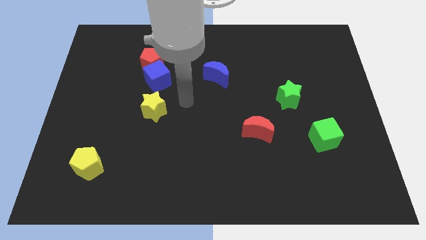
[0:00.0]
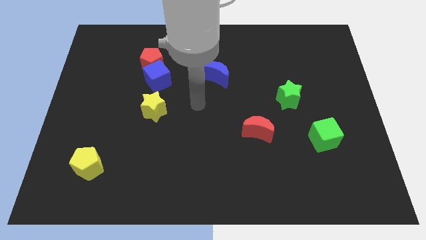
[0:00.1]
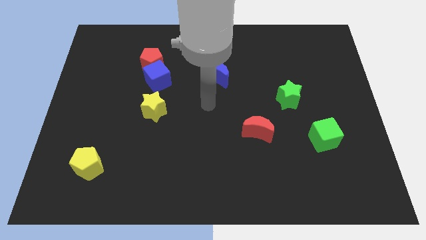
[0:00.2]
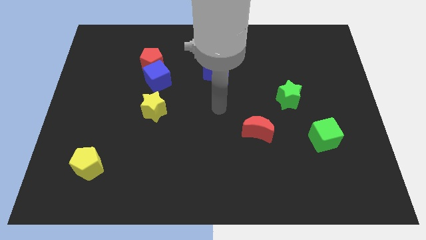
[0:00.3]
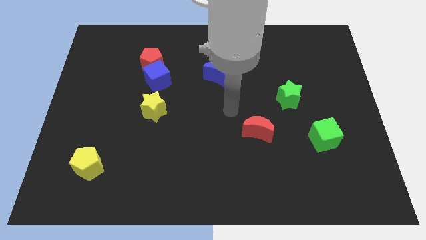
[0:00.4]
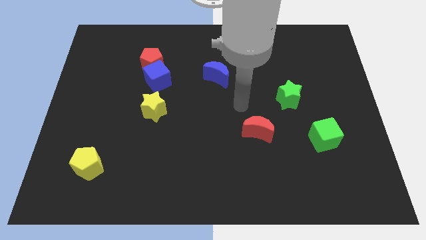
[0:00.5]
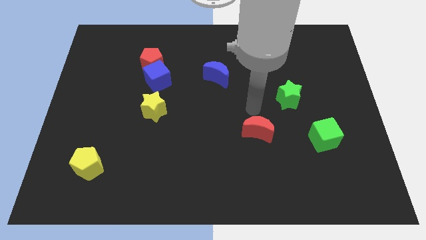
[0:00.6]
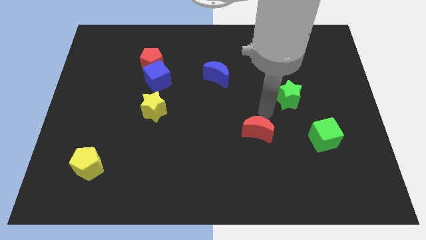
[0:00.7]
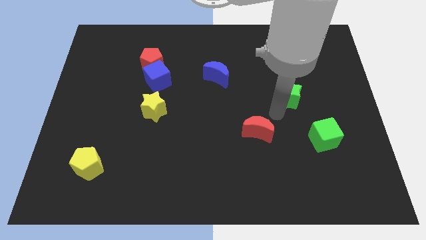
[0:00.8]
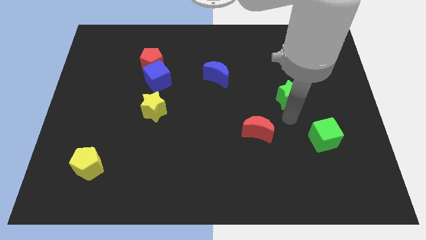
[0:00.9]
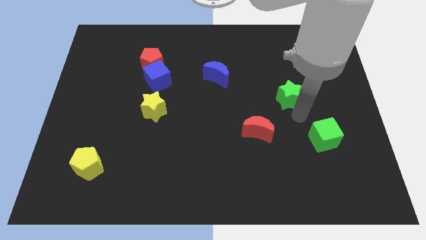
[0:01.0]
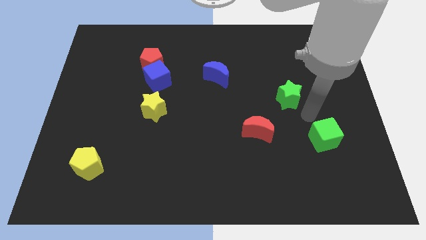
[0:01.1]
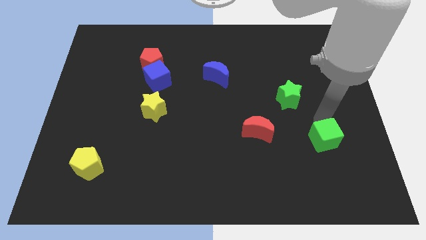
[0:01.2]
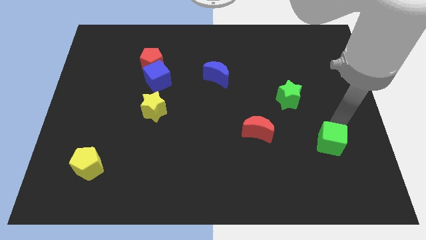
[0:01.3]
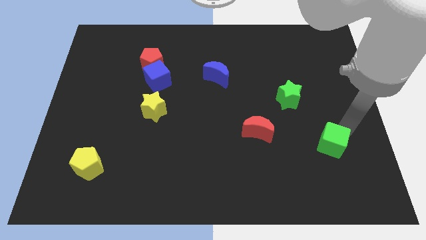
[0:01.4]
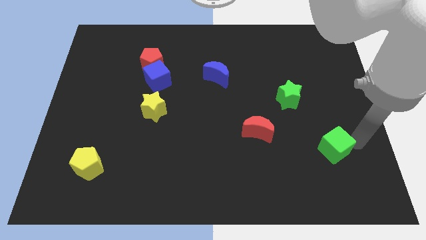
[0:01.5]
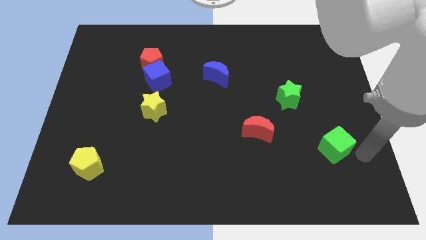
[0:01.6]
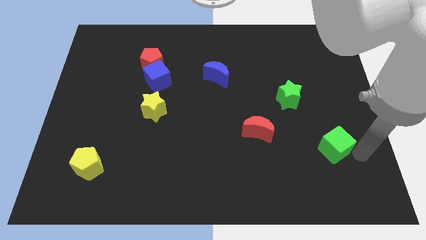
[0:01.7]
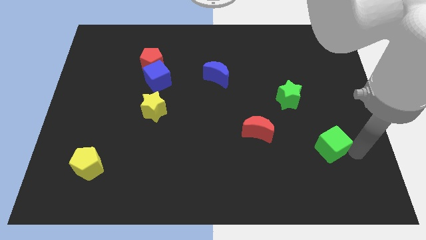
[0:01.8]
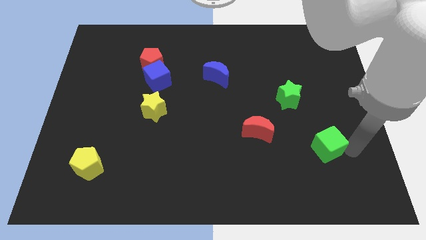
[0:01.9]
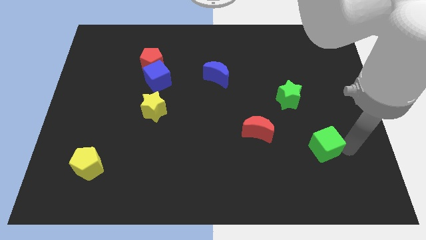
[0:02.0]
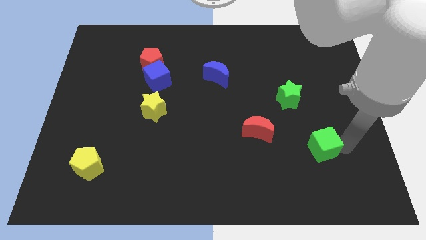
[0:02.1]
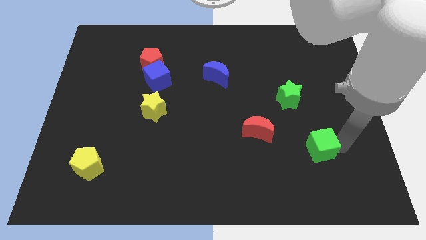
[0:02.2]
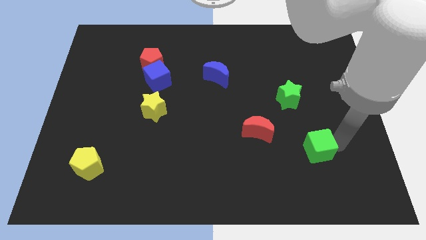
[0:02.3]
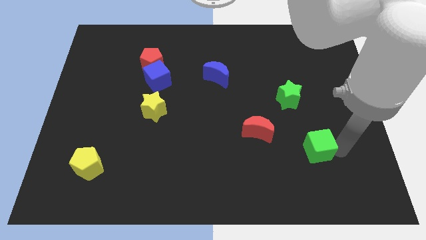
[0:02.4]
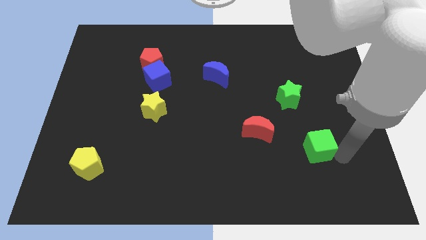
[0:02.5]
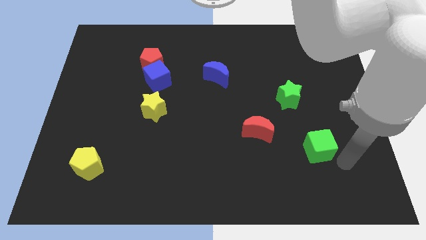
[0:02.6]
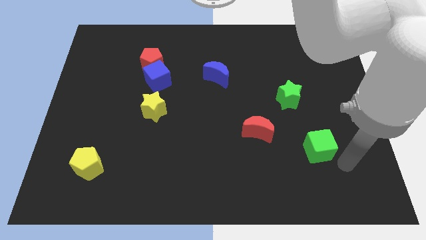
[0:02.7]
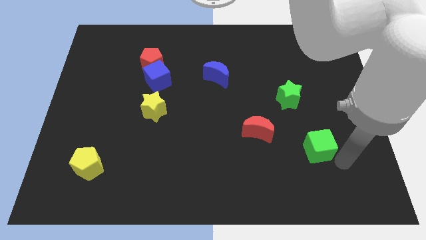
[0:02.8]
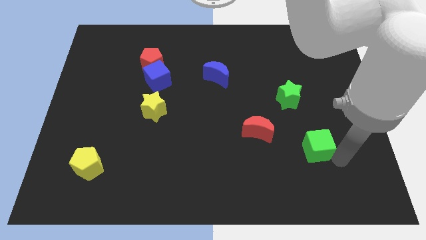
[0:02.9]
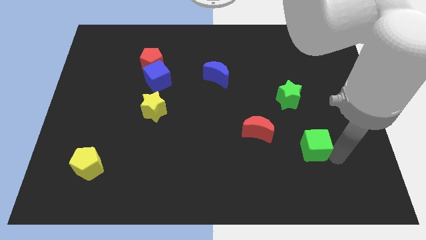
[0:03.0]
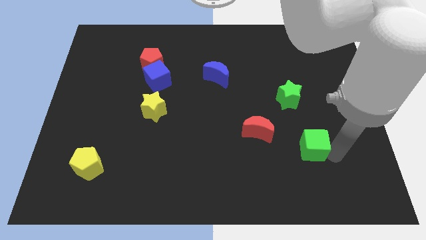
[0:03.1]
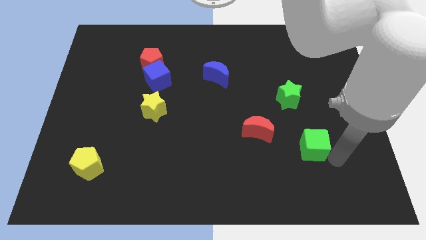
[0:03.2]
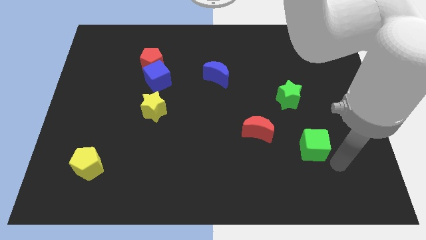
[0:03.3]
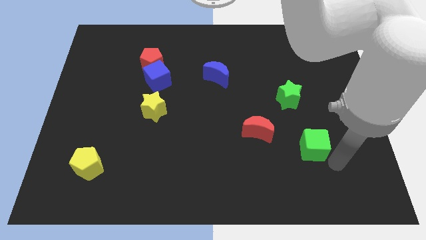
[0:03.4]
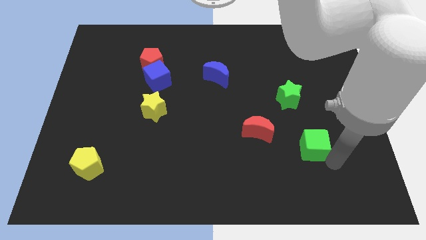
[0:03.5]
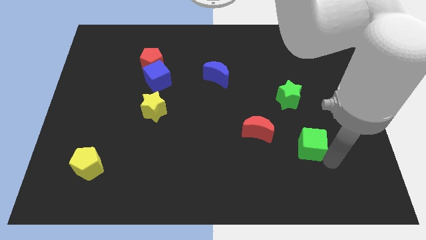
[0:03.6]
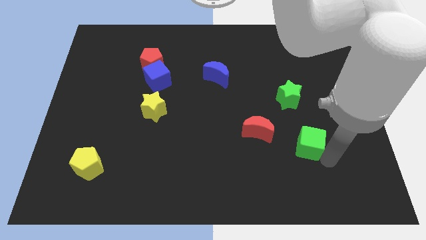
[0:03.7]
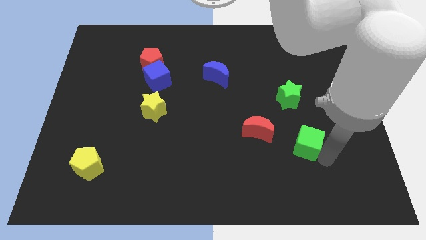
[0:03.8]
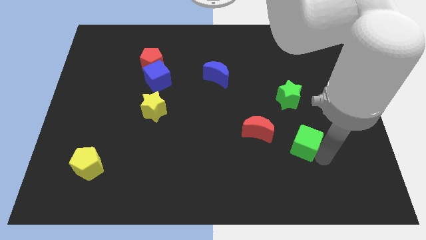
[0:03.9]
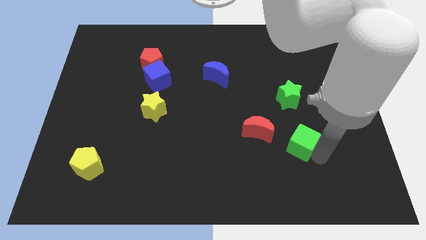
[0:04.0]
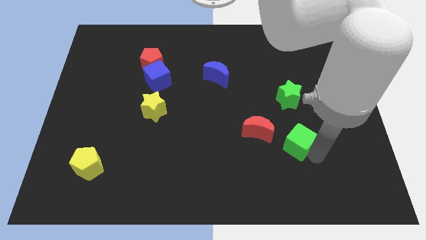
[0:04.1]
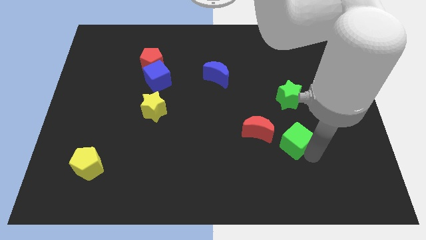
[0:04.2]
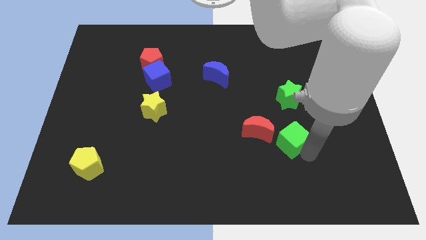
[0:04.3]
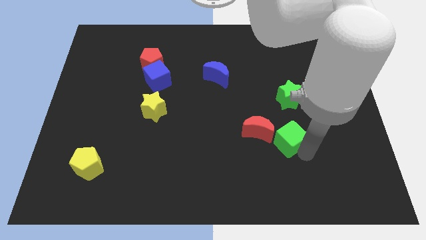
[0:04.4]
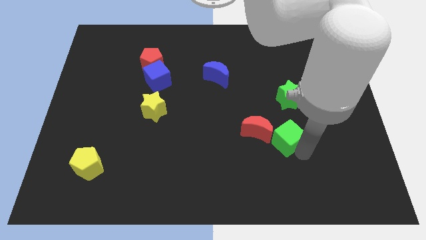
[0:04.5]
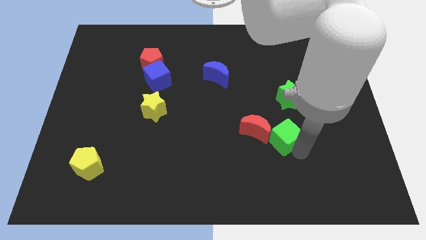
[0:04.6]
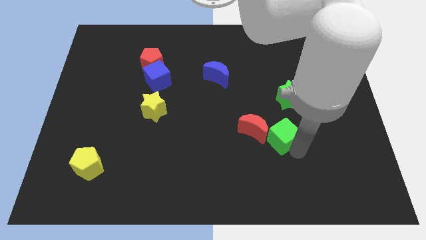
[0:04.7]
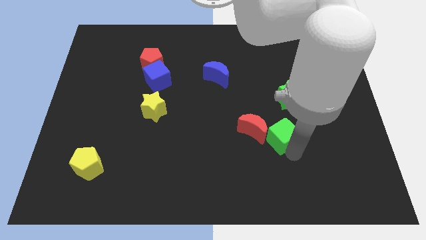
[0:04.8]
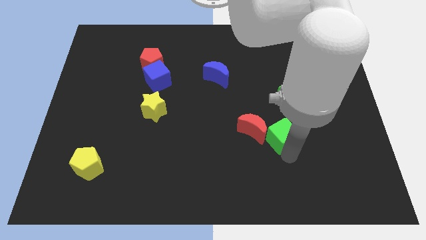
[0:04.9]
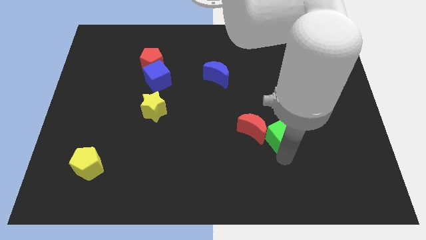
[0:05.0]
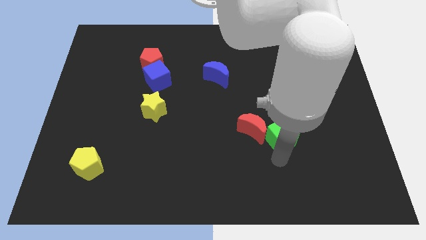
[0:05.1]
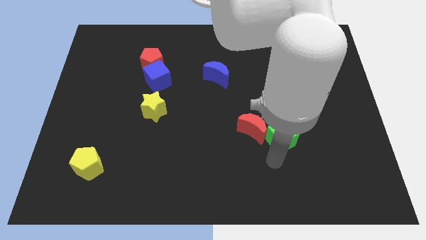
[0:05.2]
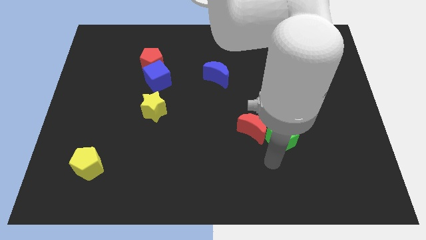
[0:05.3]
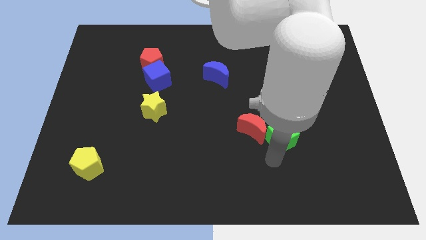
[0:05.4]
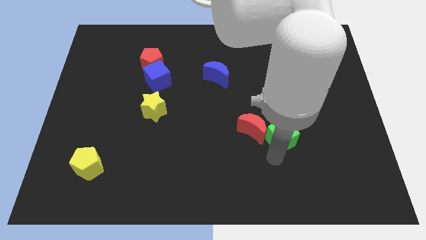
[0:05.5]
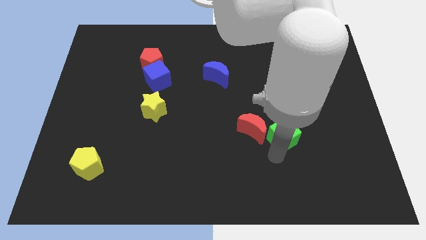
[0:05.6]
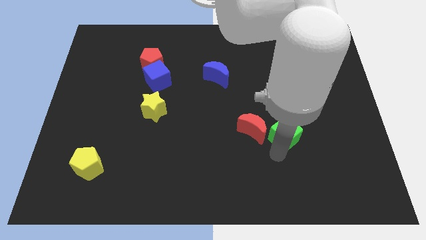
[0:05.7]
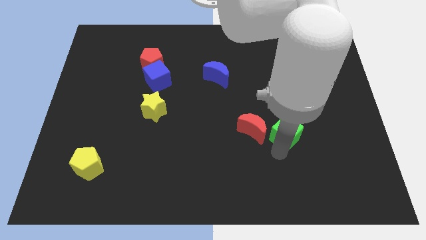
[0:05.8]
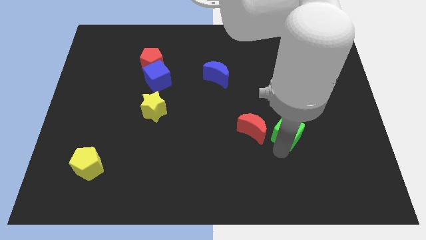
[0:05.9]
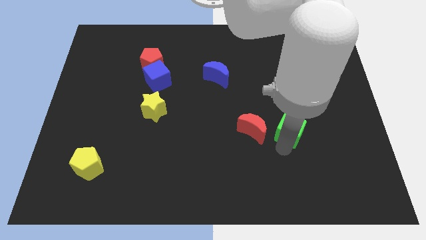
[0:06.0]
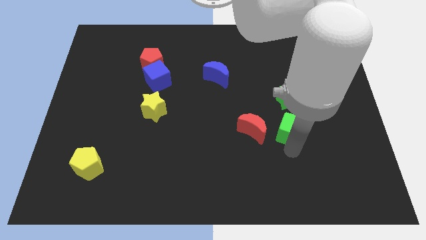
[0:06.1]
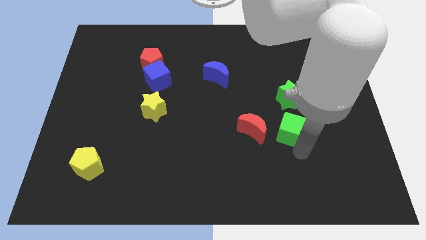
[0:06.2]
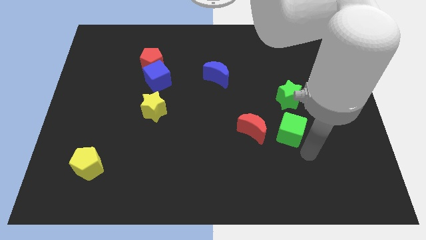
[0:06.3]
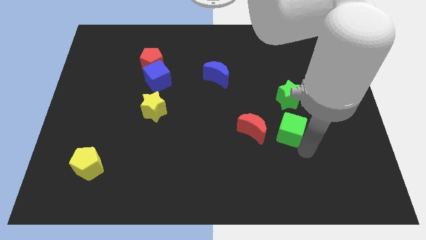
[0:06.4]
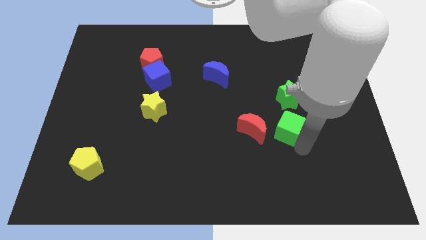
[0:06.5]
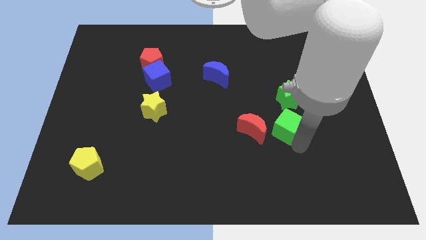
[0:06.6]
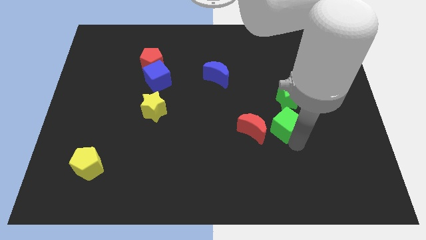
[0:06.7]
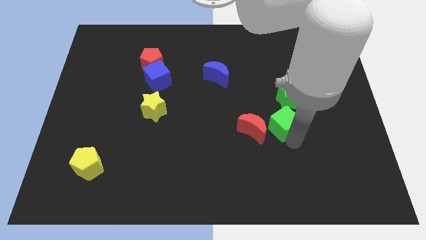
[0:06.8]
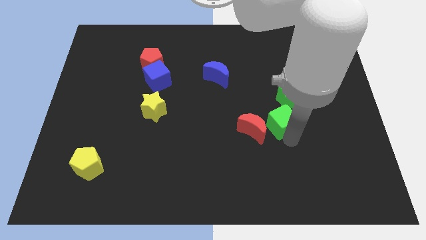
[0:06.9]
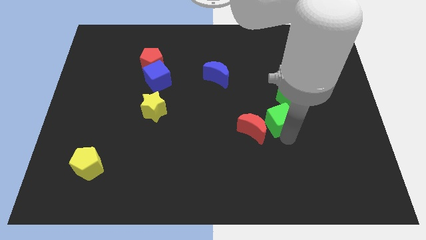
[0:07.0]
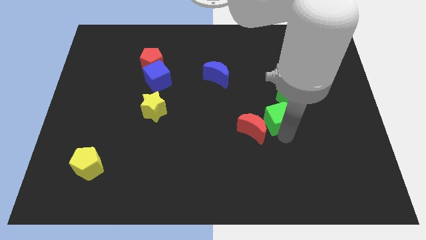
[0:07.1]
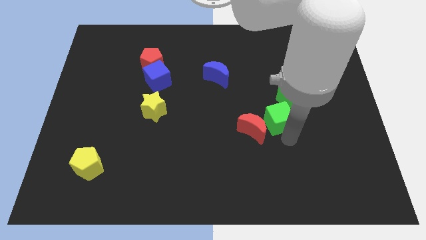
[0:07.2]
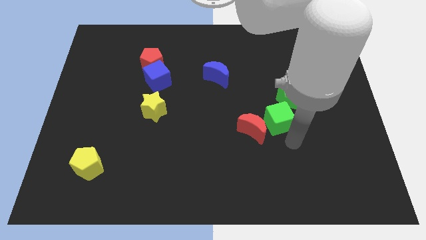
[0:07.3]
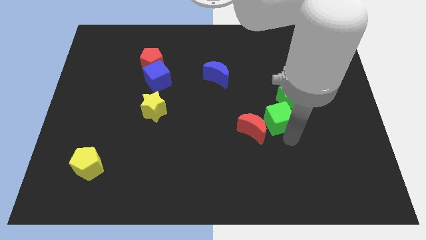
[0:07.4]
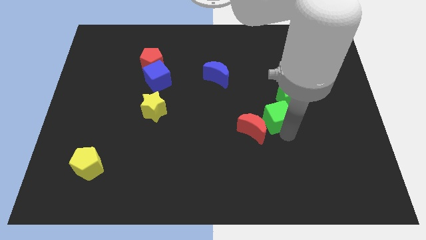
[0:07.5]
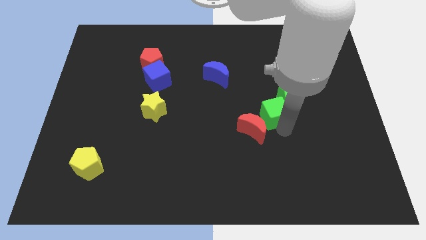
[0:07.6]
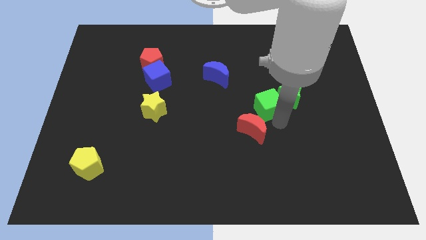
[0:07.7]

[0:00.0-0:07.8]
move the green cube to the top side of the red moon
